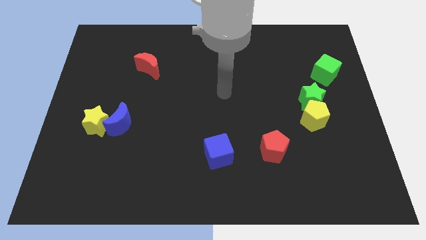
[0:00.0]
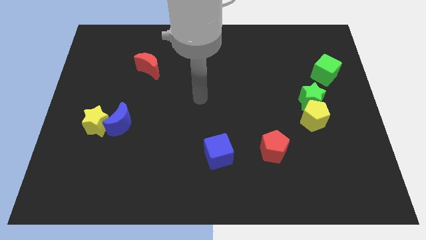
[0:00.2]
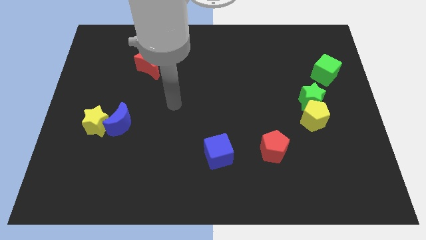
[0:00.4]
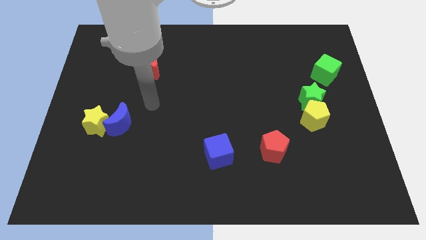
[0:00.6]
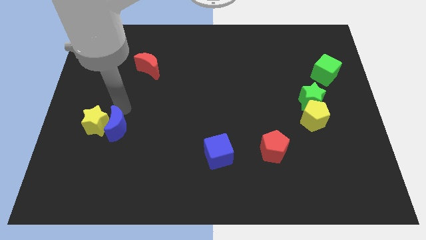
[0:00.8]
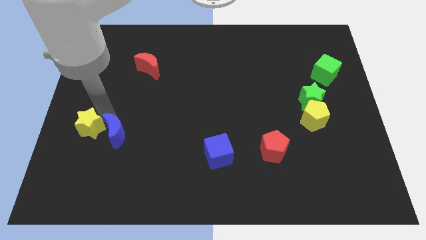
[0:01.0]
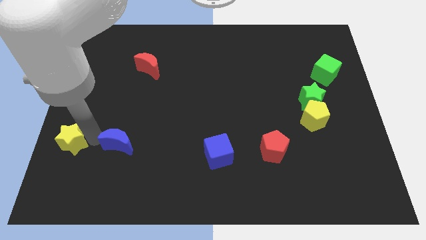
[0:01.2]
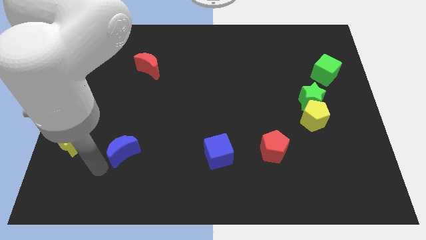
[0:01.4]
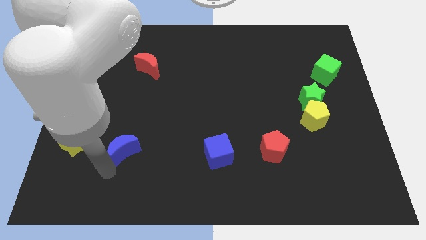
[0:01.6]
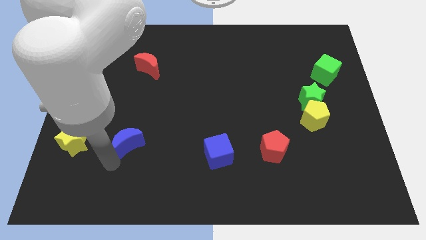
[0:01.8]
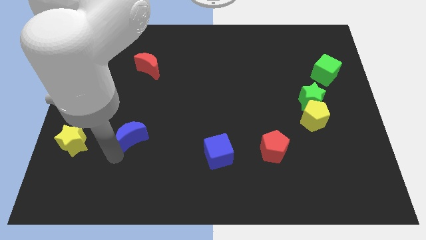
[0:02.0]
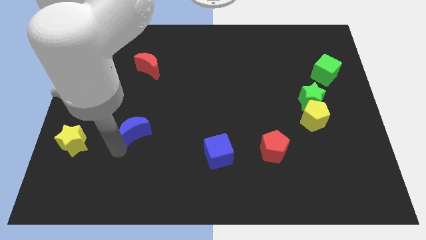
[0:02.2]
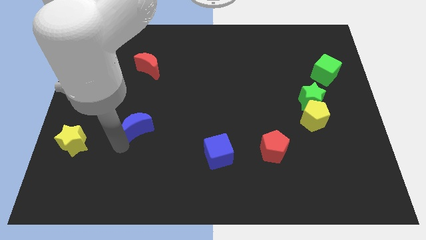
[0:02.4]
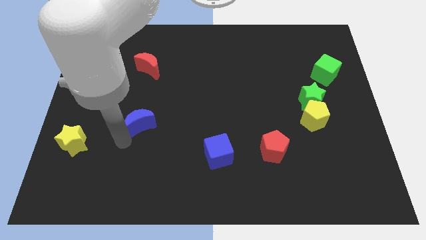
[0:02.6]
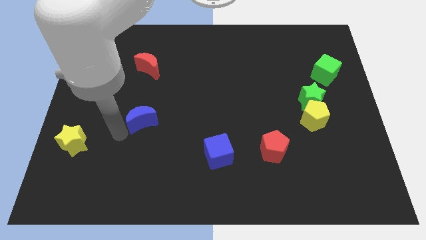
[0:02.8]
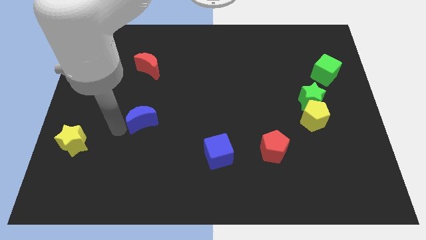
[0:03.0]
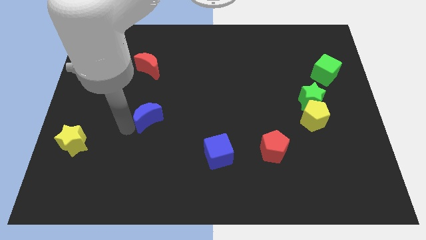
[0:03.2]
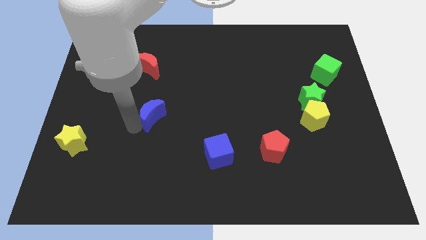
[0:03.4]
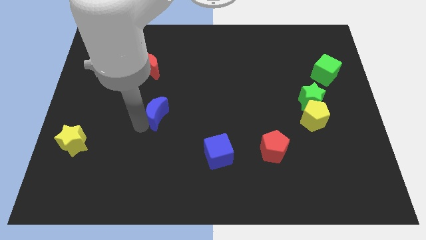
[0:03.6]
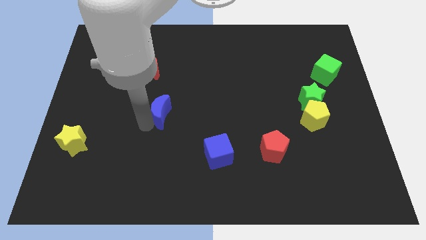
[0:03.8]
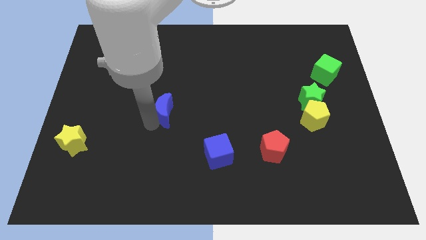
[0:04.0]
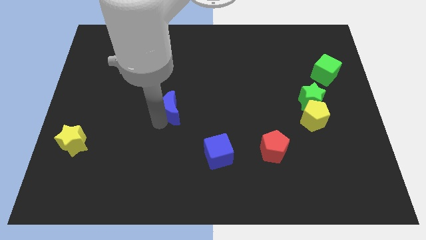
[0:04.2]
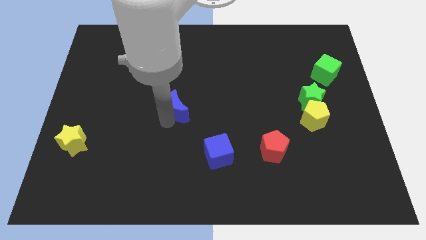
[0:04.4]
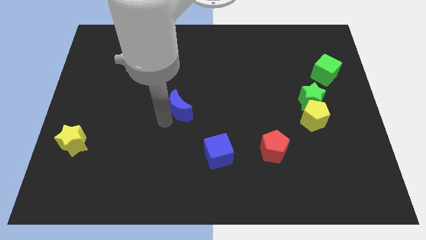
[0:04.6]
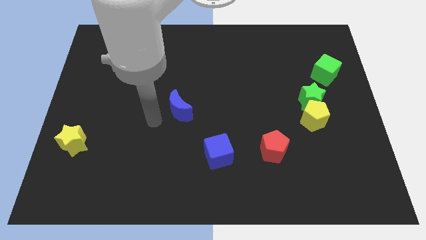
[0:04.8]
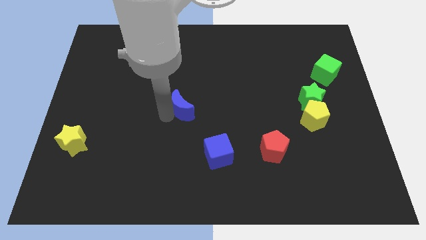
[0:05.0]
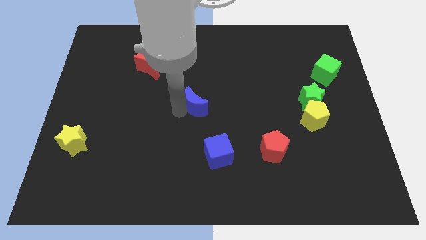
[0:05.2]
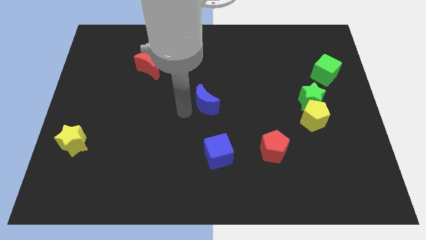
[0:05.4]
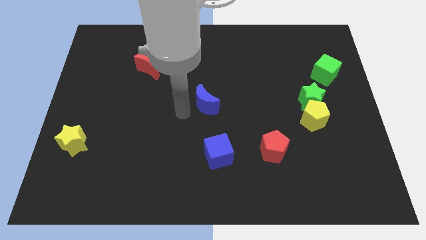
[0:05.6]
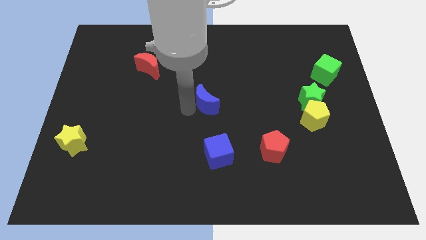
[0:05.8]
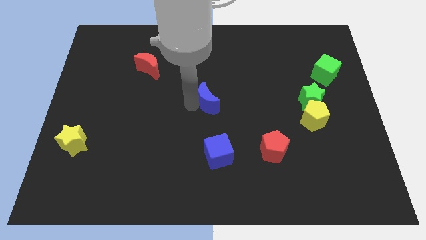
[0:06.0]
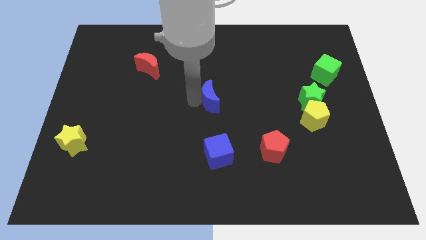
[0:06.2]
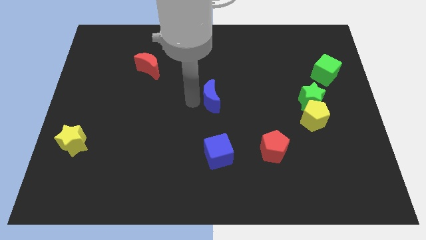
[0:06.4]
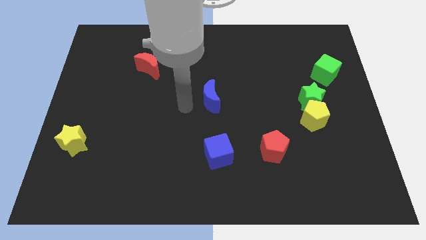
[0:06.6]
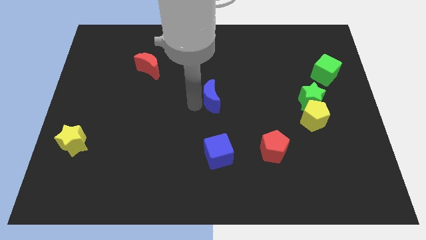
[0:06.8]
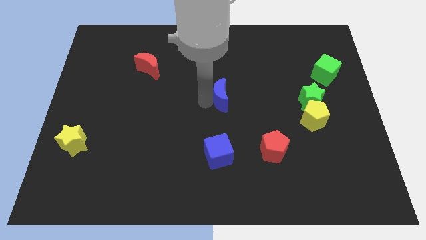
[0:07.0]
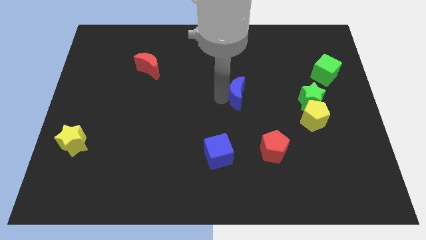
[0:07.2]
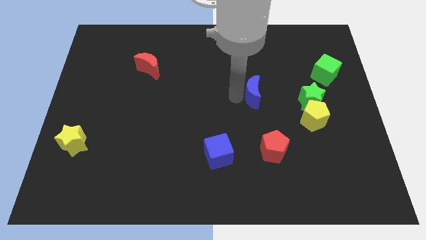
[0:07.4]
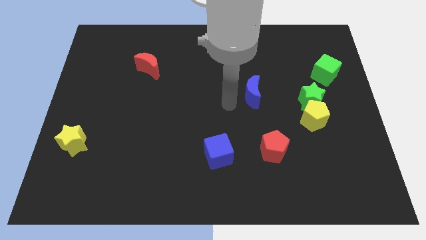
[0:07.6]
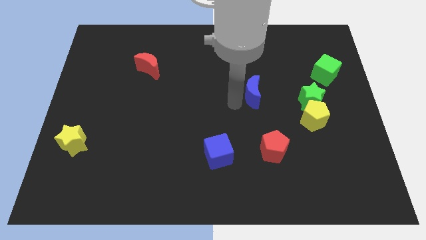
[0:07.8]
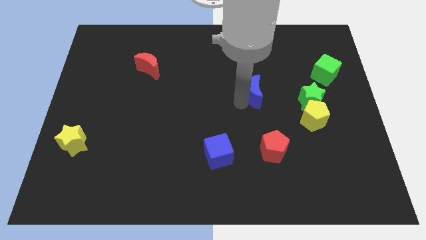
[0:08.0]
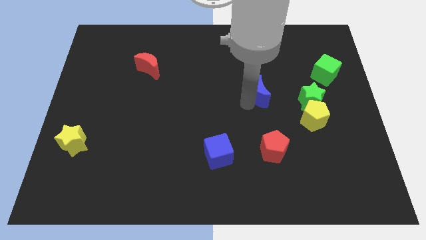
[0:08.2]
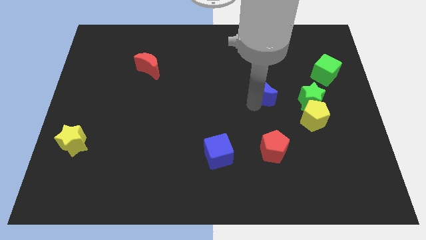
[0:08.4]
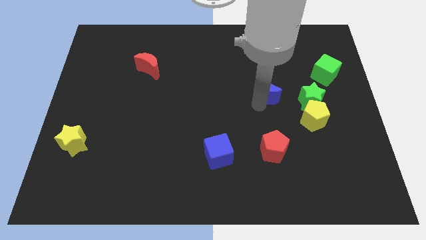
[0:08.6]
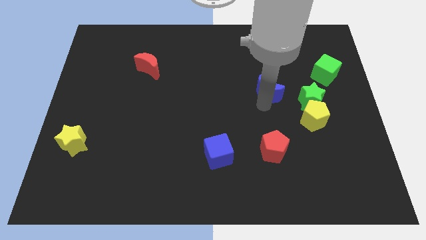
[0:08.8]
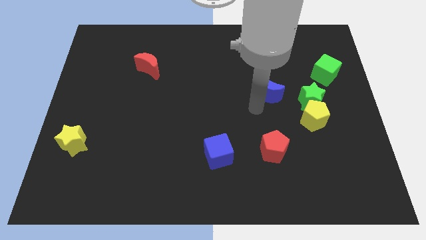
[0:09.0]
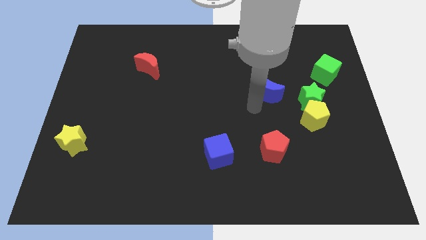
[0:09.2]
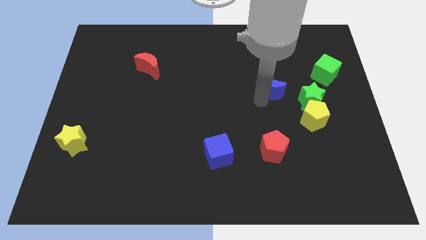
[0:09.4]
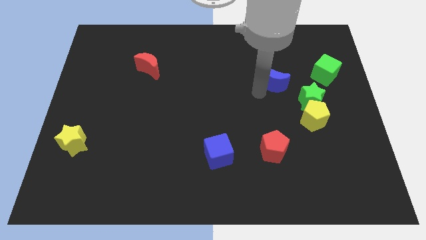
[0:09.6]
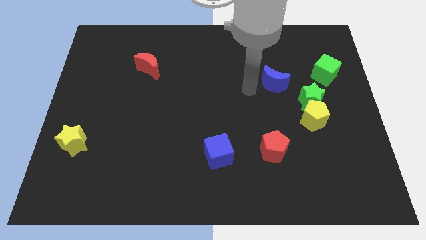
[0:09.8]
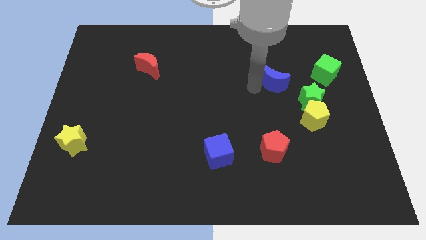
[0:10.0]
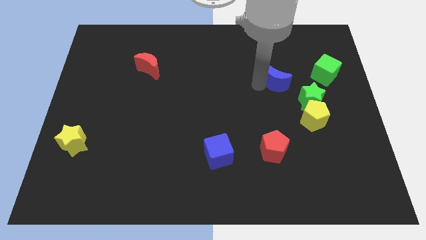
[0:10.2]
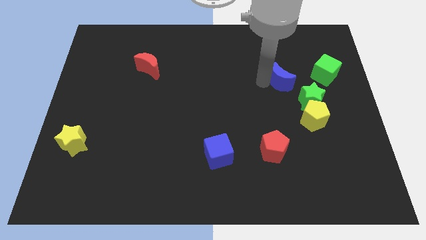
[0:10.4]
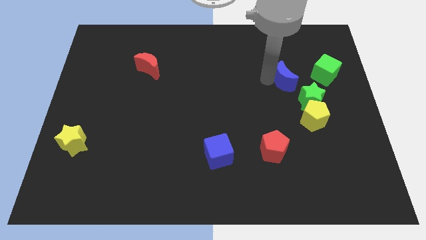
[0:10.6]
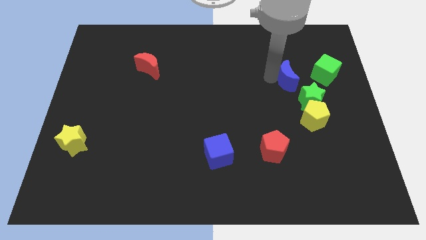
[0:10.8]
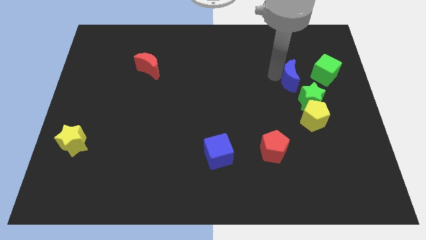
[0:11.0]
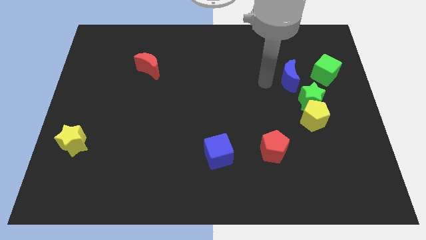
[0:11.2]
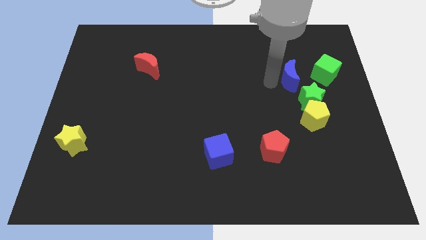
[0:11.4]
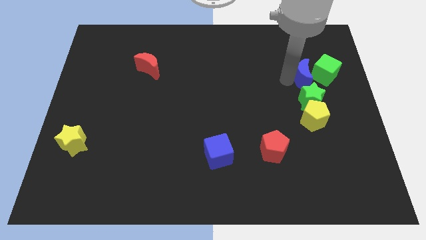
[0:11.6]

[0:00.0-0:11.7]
slide the blue moon to the green cube
